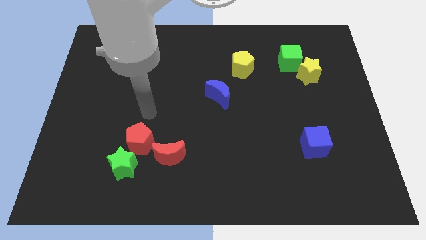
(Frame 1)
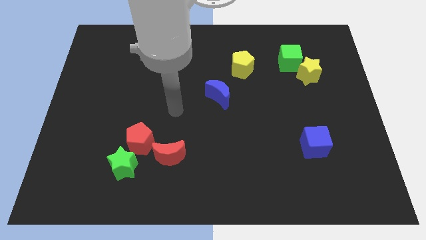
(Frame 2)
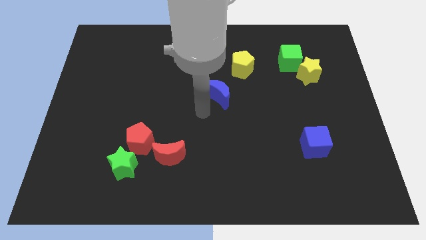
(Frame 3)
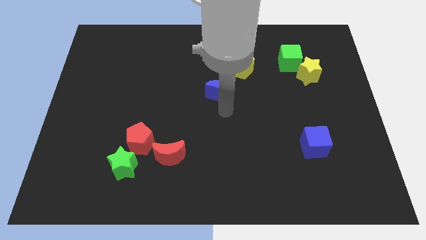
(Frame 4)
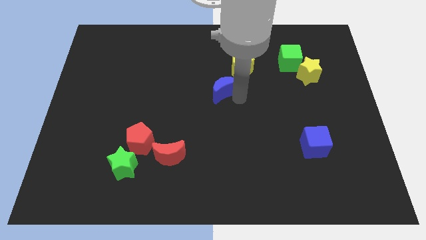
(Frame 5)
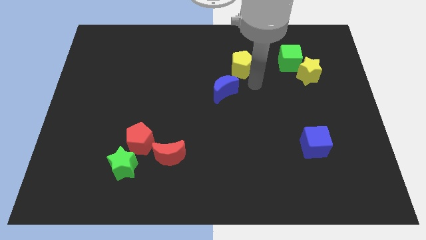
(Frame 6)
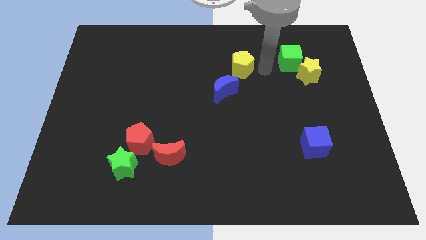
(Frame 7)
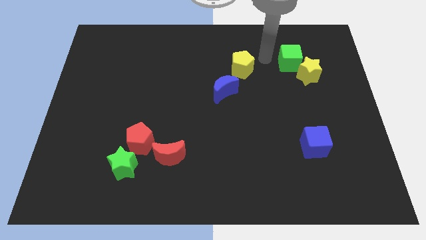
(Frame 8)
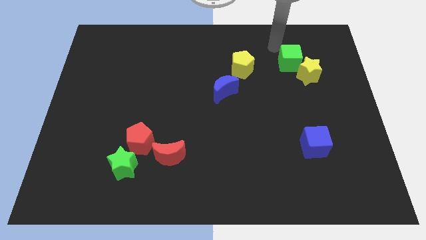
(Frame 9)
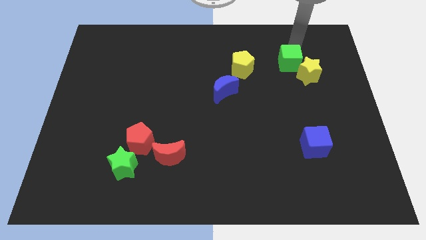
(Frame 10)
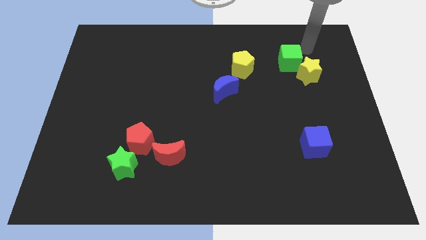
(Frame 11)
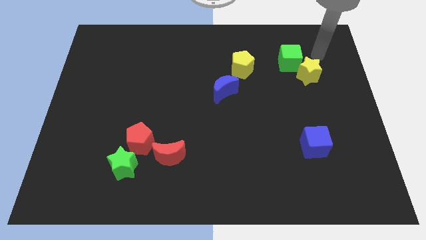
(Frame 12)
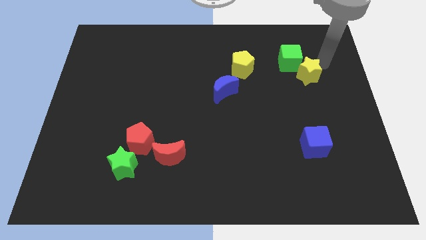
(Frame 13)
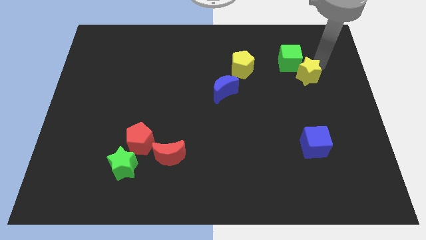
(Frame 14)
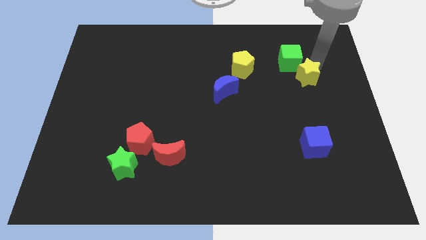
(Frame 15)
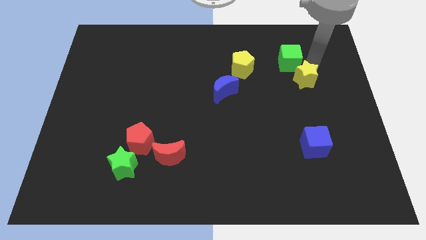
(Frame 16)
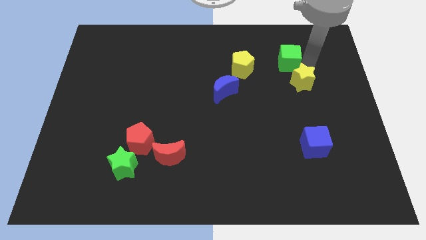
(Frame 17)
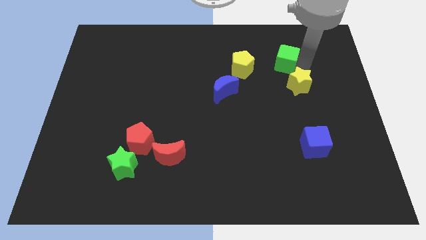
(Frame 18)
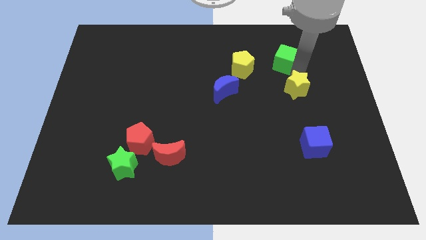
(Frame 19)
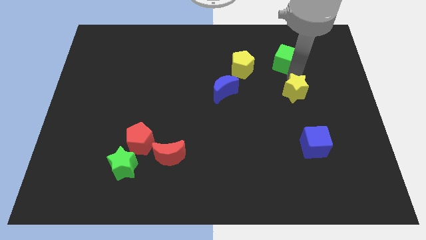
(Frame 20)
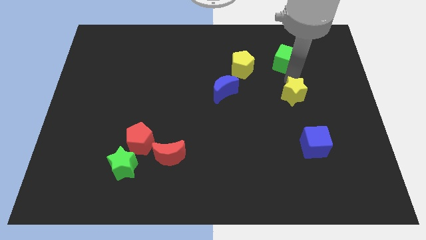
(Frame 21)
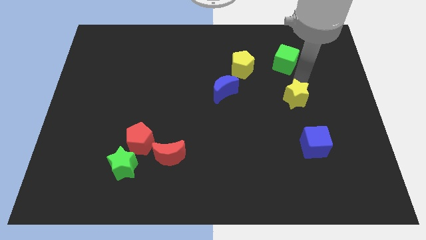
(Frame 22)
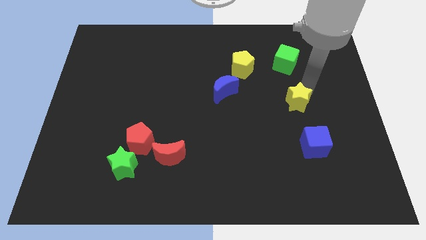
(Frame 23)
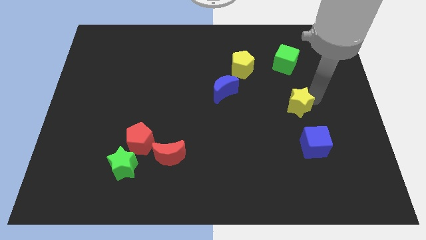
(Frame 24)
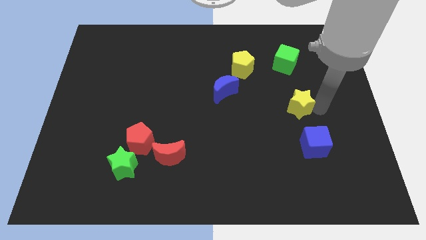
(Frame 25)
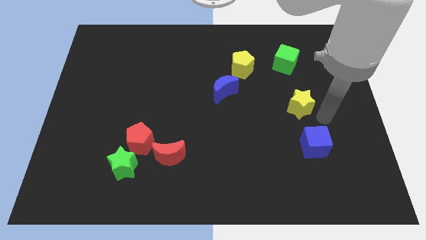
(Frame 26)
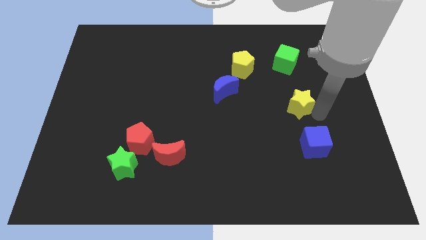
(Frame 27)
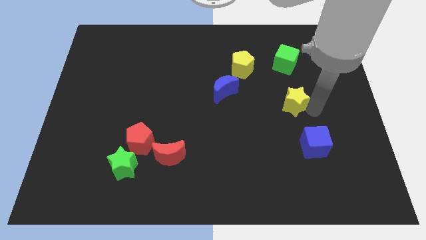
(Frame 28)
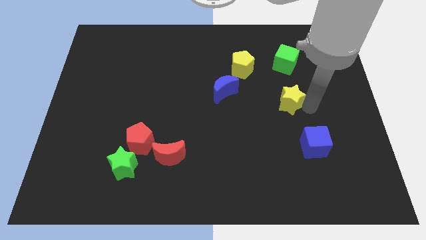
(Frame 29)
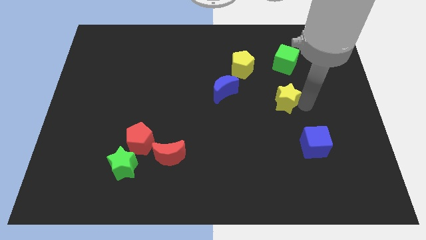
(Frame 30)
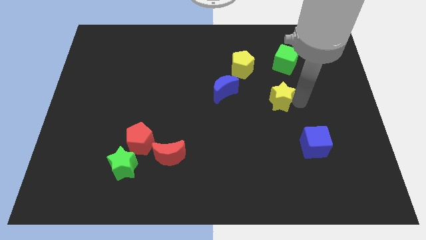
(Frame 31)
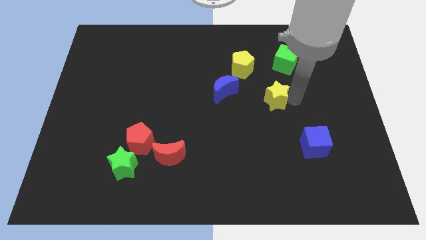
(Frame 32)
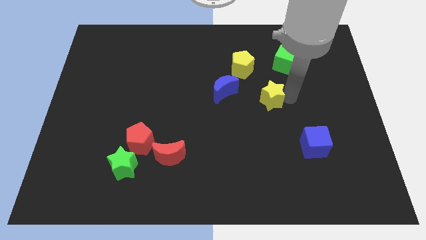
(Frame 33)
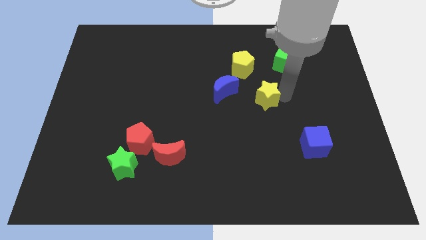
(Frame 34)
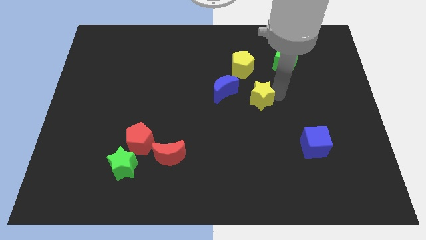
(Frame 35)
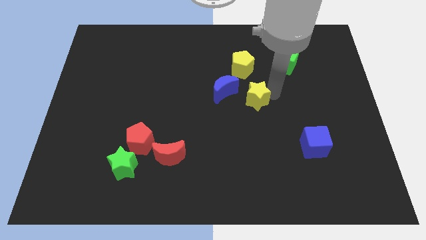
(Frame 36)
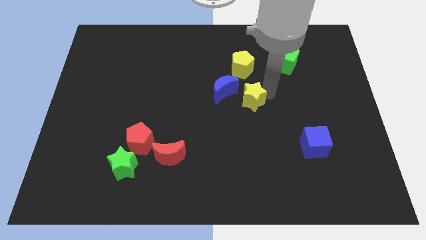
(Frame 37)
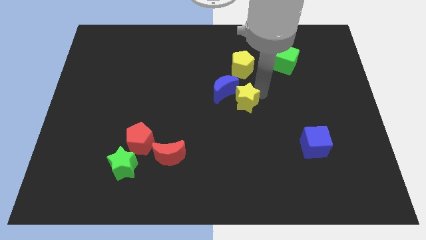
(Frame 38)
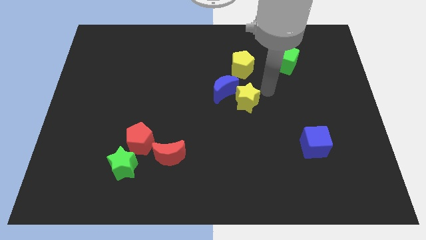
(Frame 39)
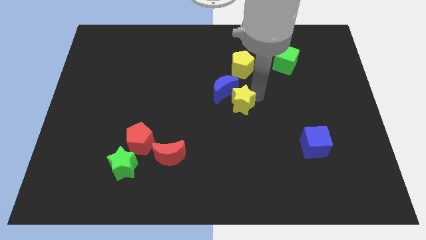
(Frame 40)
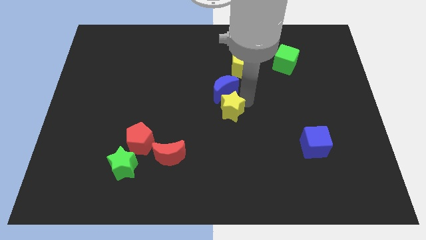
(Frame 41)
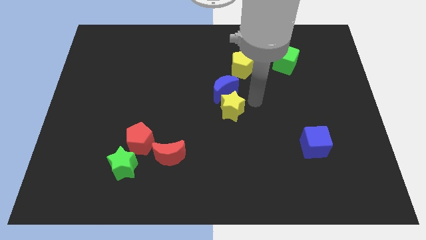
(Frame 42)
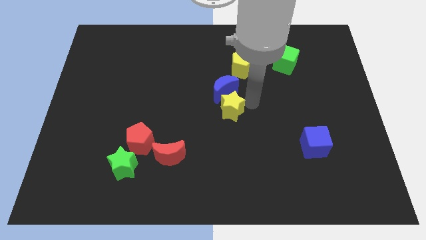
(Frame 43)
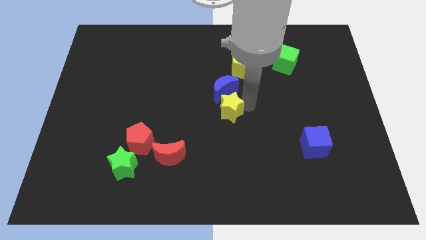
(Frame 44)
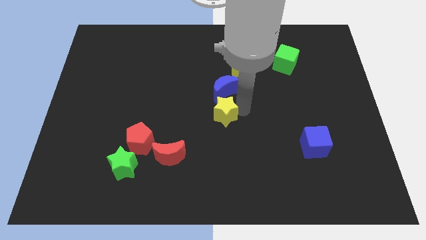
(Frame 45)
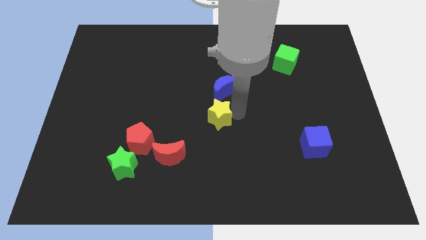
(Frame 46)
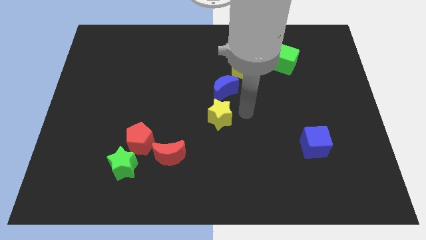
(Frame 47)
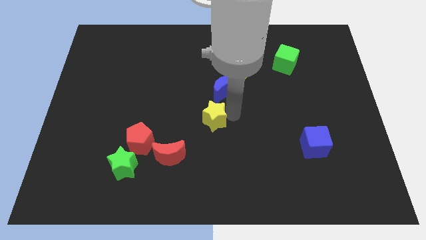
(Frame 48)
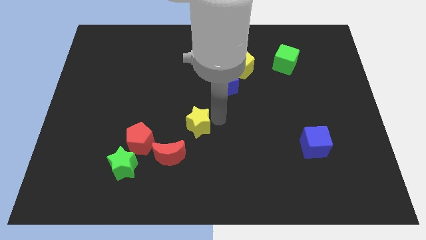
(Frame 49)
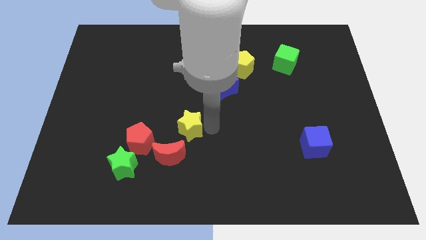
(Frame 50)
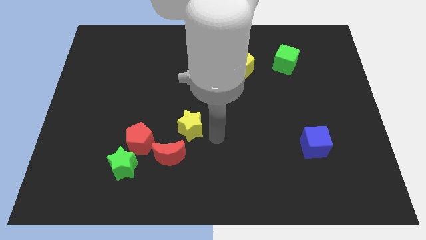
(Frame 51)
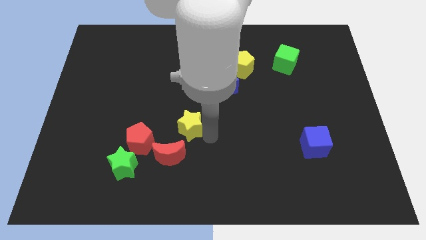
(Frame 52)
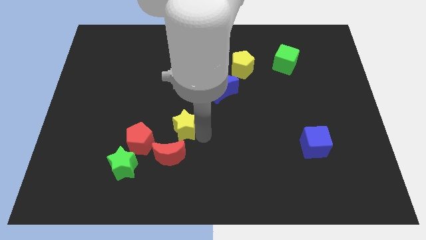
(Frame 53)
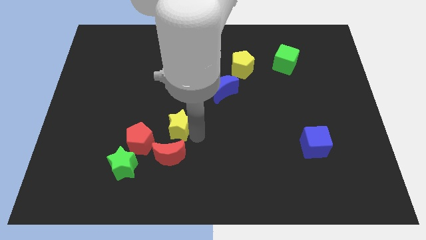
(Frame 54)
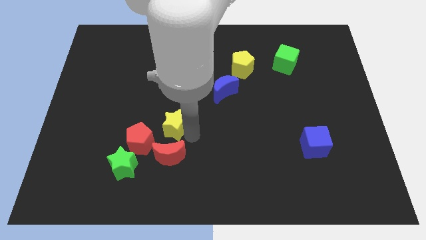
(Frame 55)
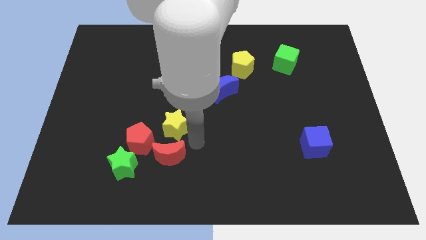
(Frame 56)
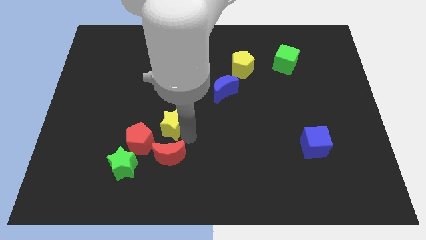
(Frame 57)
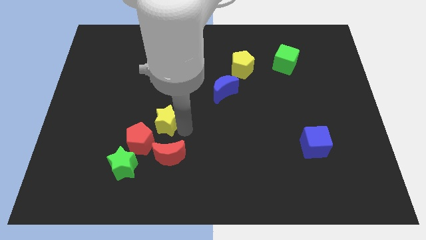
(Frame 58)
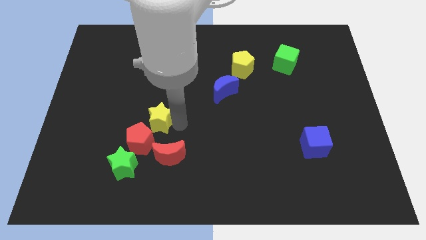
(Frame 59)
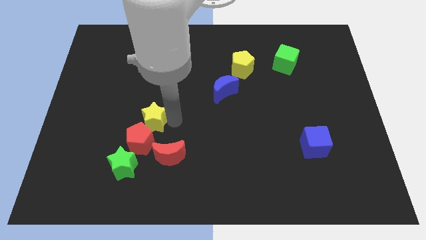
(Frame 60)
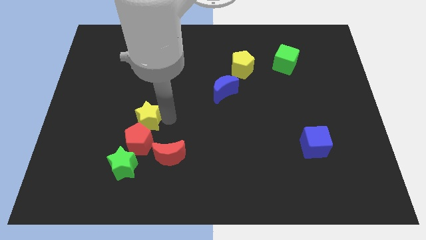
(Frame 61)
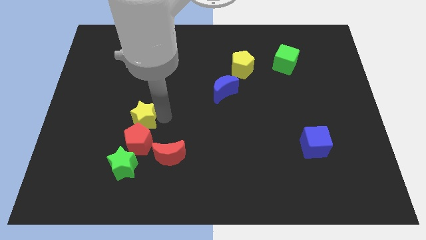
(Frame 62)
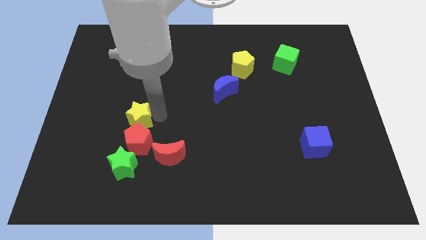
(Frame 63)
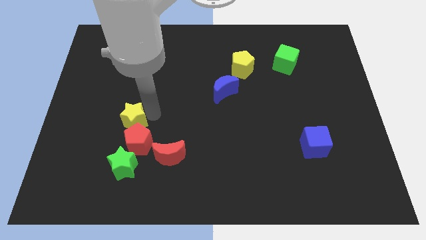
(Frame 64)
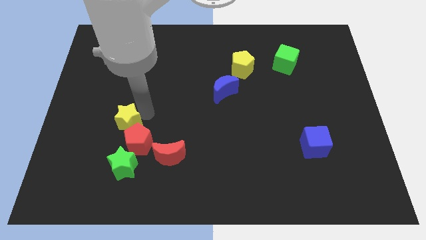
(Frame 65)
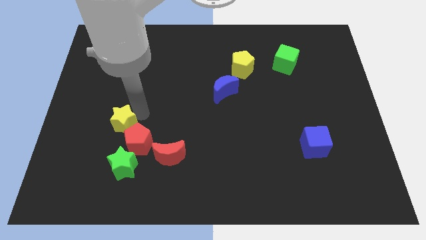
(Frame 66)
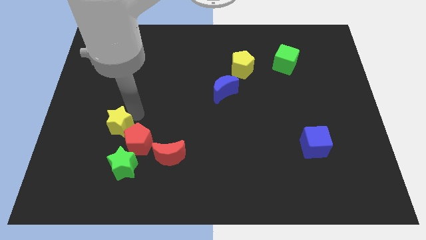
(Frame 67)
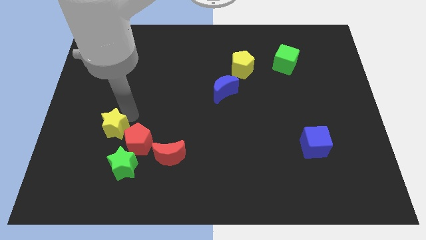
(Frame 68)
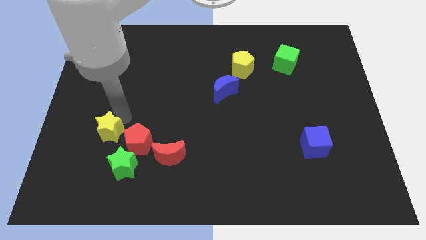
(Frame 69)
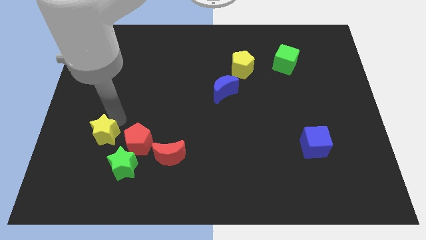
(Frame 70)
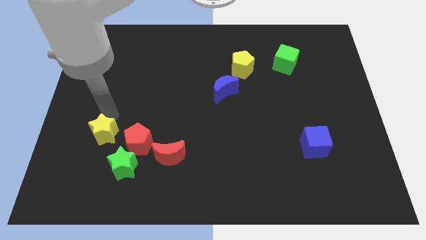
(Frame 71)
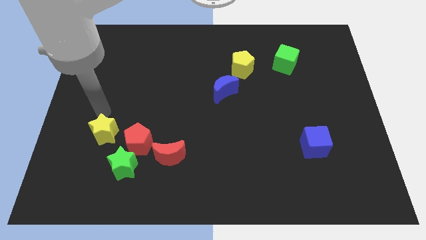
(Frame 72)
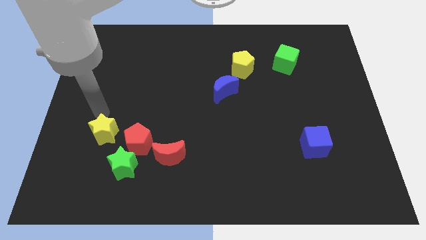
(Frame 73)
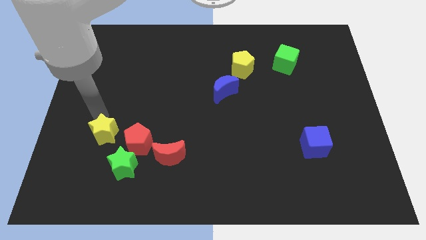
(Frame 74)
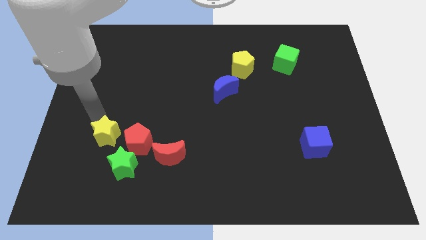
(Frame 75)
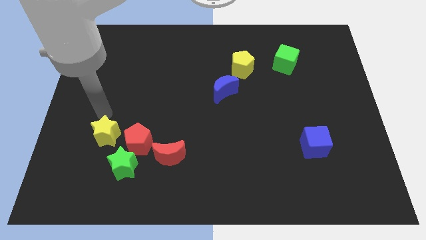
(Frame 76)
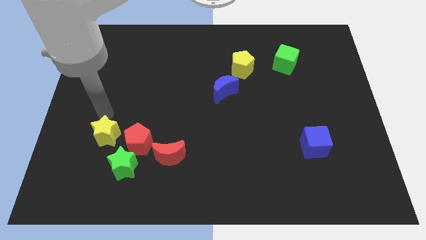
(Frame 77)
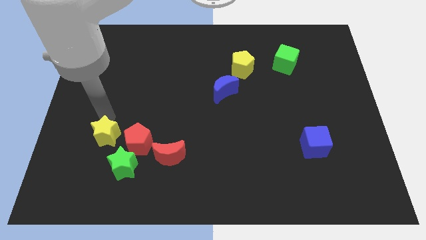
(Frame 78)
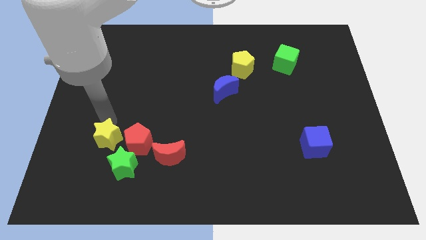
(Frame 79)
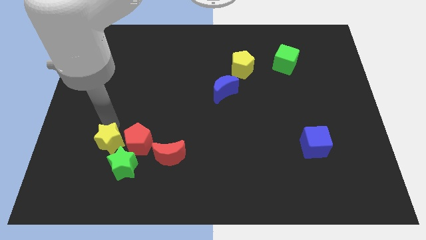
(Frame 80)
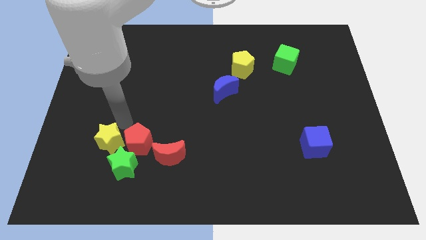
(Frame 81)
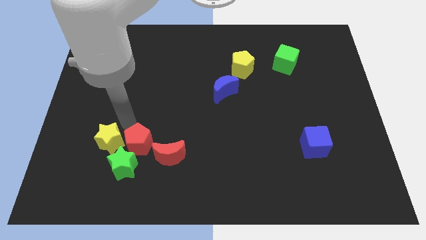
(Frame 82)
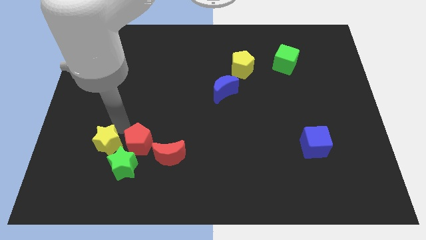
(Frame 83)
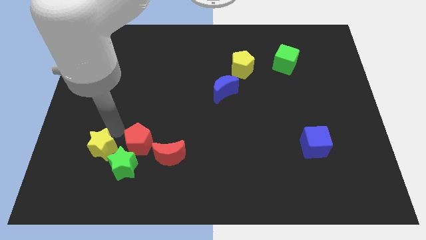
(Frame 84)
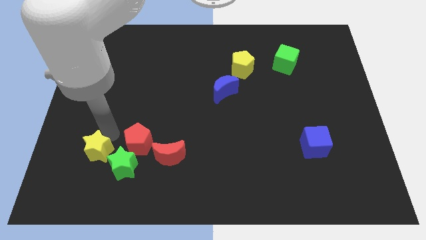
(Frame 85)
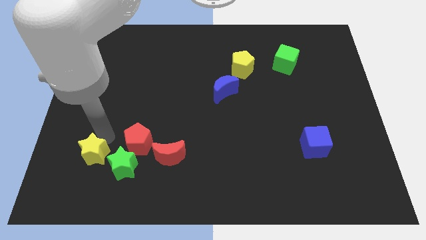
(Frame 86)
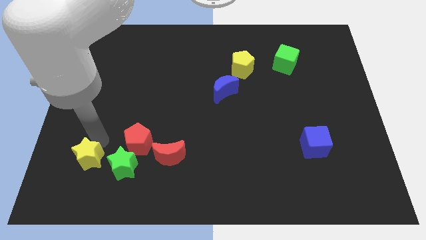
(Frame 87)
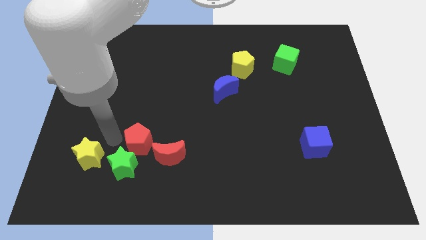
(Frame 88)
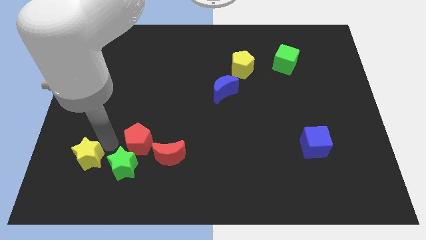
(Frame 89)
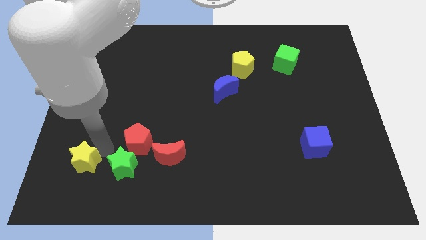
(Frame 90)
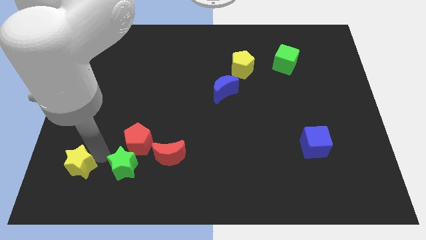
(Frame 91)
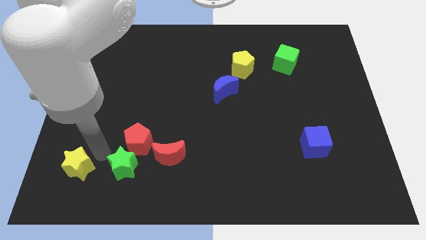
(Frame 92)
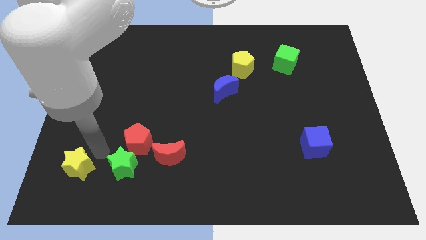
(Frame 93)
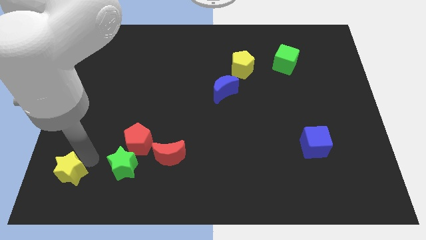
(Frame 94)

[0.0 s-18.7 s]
put the yellow star to the bottom left of the board
